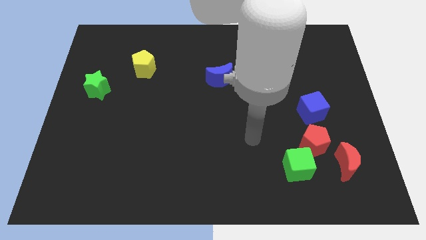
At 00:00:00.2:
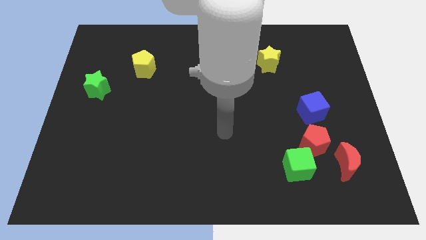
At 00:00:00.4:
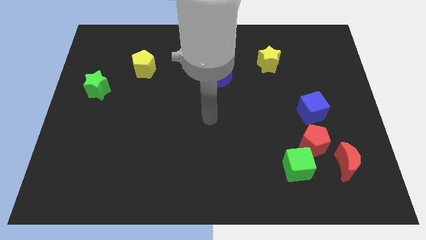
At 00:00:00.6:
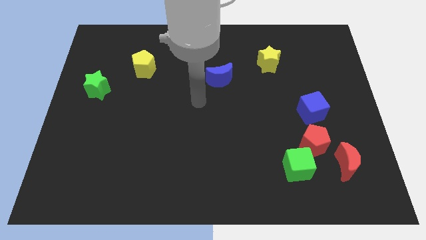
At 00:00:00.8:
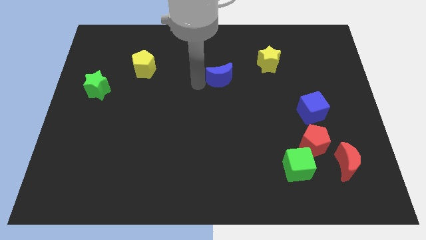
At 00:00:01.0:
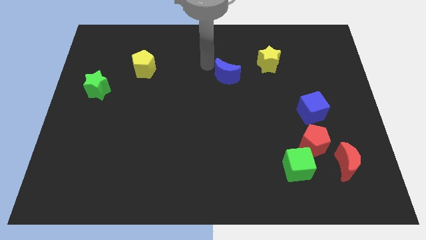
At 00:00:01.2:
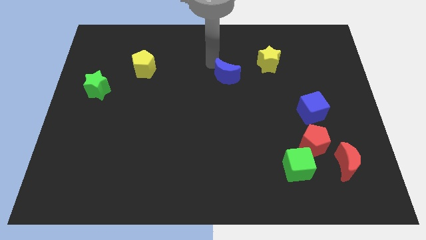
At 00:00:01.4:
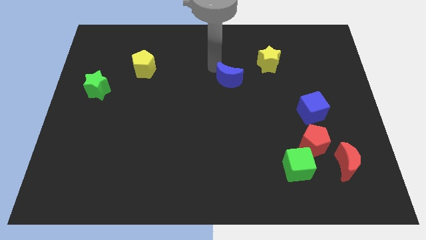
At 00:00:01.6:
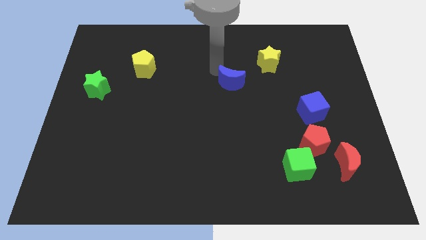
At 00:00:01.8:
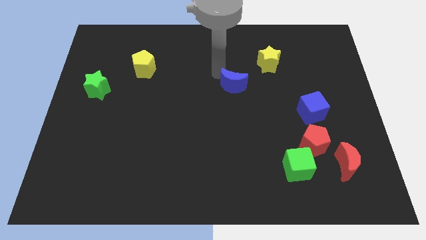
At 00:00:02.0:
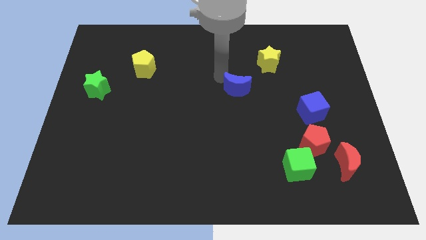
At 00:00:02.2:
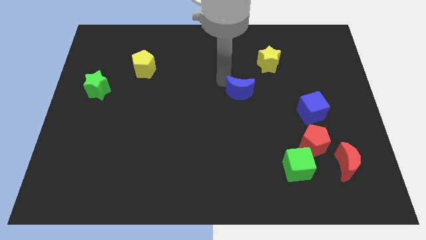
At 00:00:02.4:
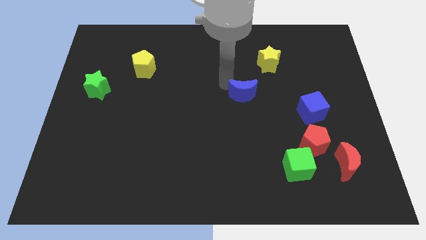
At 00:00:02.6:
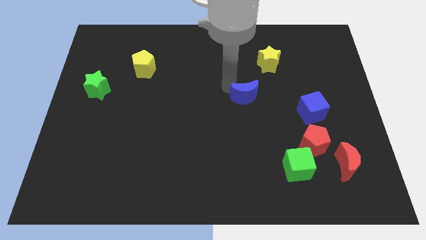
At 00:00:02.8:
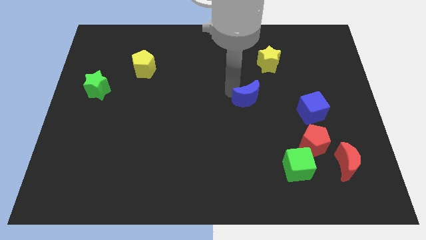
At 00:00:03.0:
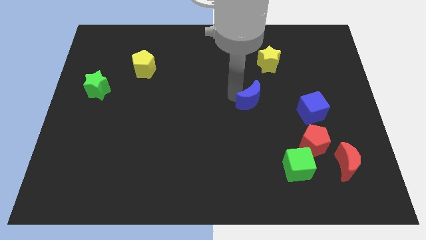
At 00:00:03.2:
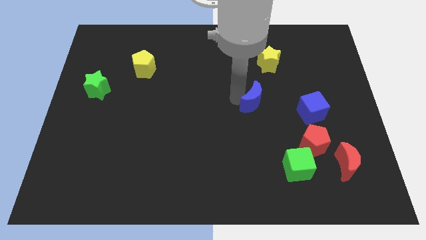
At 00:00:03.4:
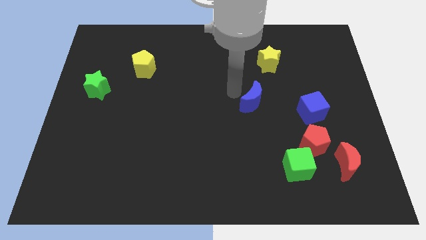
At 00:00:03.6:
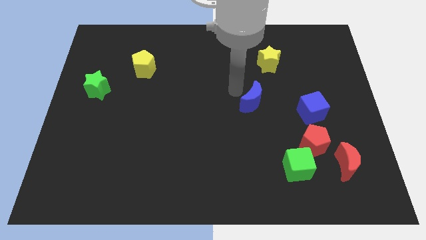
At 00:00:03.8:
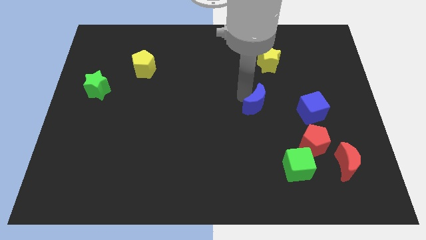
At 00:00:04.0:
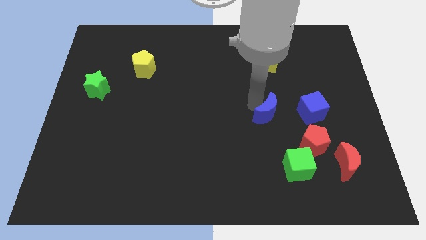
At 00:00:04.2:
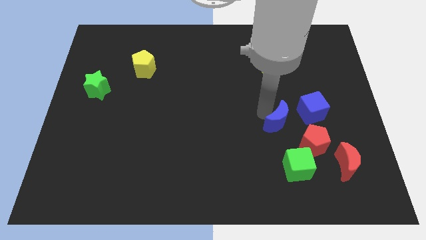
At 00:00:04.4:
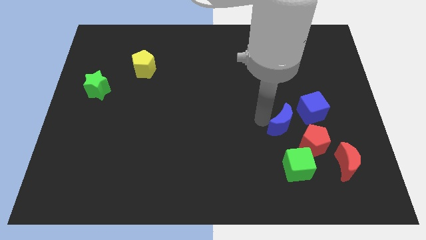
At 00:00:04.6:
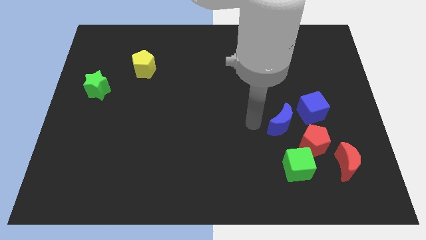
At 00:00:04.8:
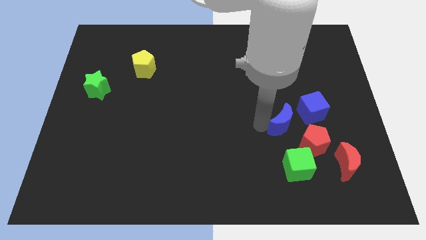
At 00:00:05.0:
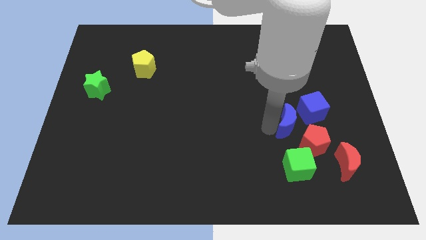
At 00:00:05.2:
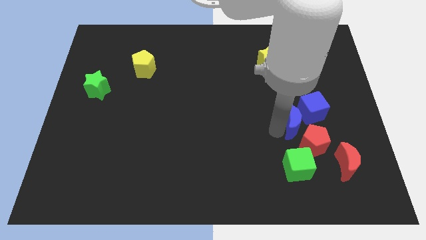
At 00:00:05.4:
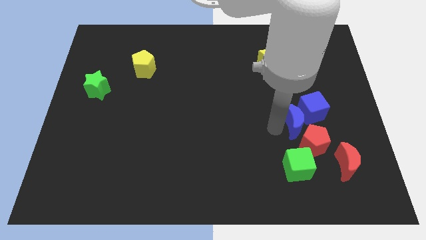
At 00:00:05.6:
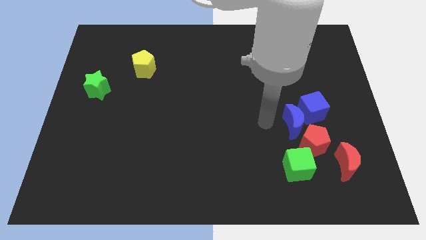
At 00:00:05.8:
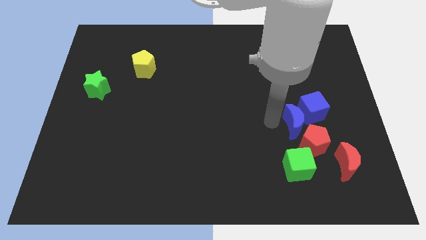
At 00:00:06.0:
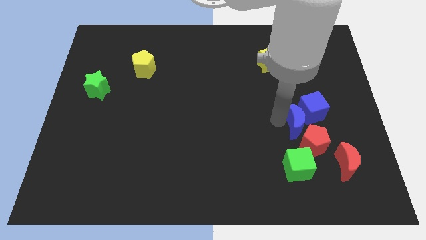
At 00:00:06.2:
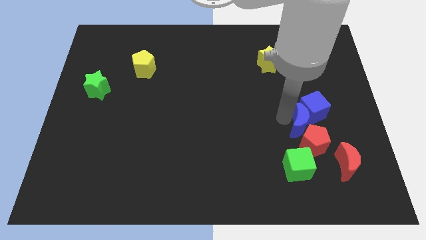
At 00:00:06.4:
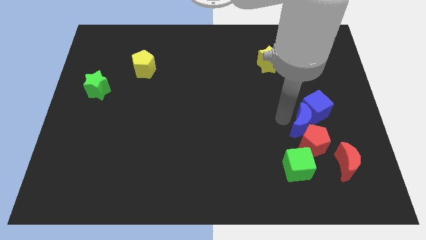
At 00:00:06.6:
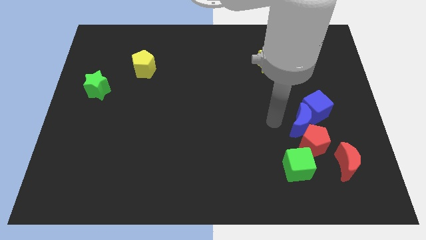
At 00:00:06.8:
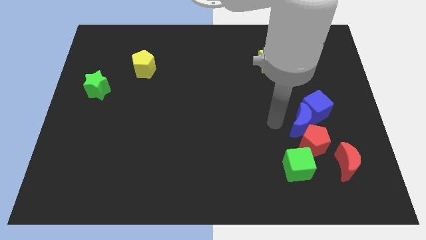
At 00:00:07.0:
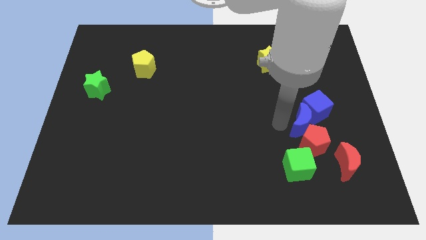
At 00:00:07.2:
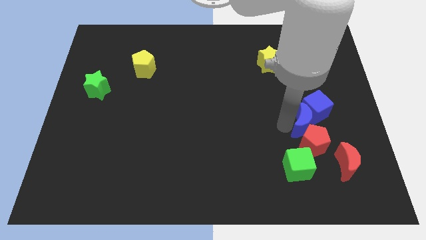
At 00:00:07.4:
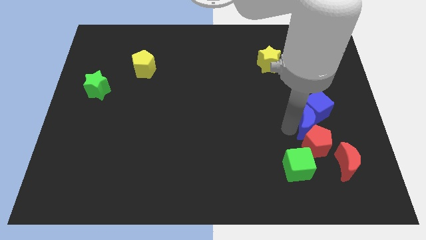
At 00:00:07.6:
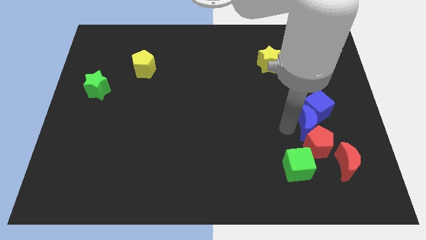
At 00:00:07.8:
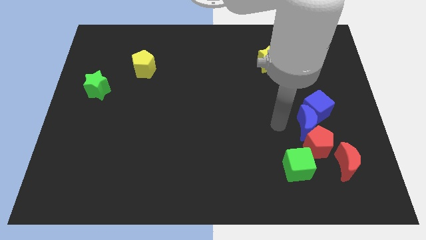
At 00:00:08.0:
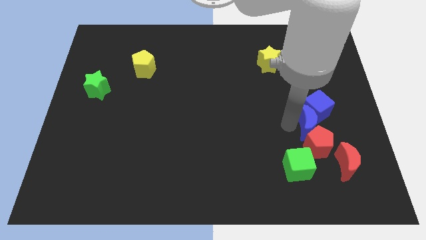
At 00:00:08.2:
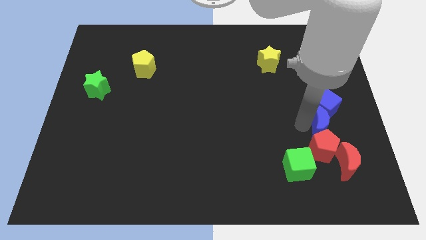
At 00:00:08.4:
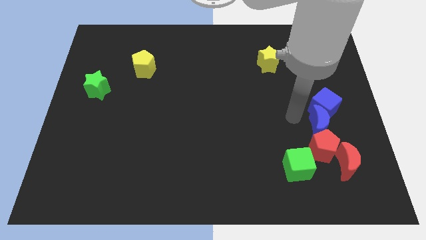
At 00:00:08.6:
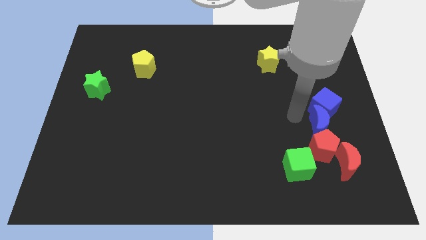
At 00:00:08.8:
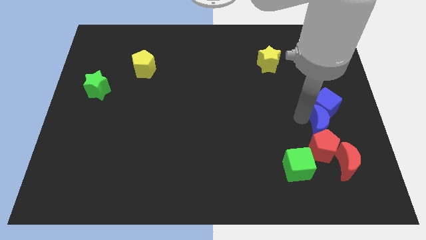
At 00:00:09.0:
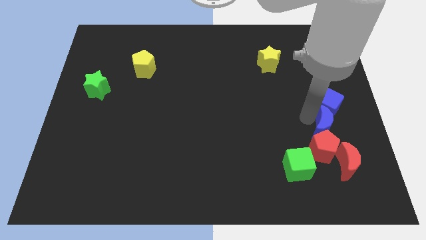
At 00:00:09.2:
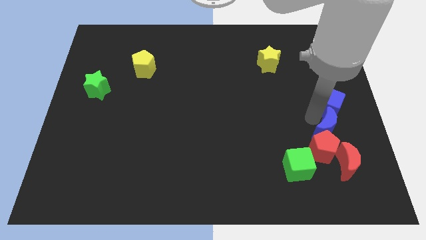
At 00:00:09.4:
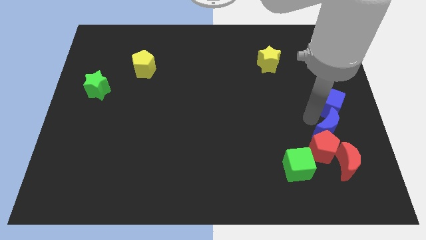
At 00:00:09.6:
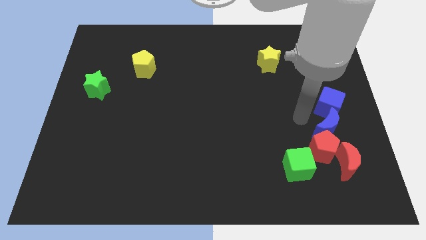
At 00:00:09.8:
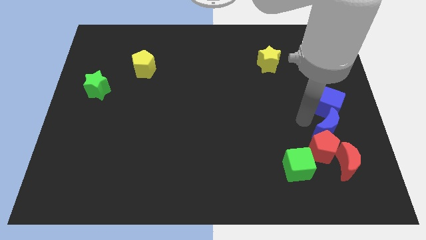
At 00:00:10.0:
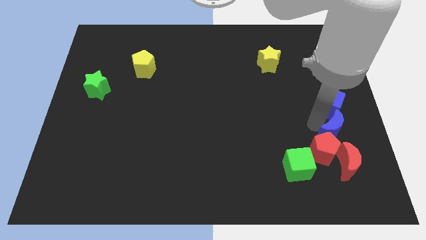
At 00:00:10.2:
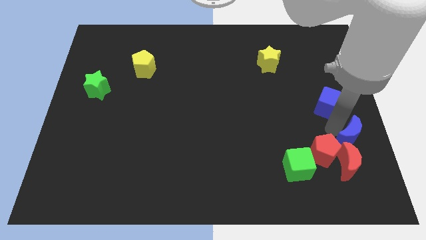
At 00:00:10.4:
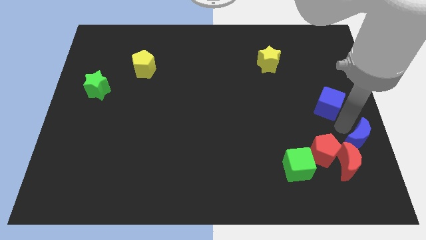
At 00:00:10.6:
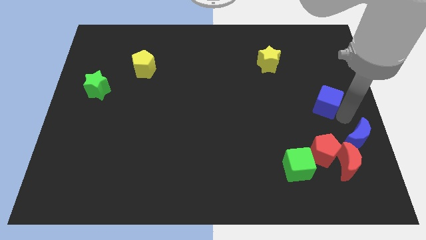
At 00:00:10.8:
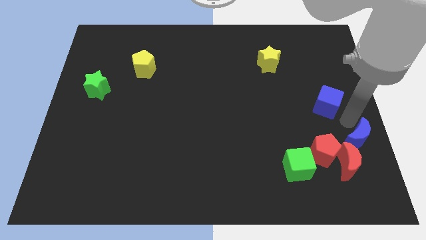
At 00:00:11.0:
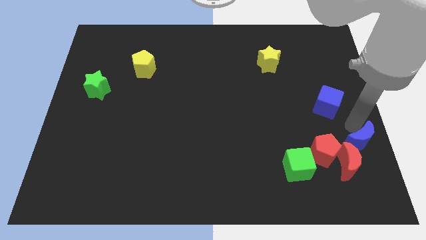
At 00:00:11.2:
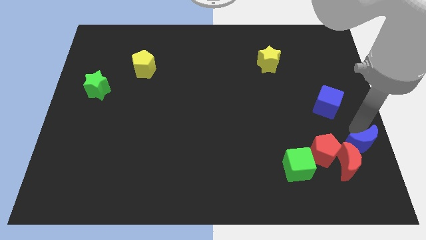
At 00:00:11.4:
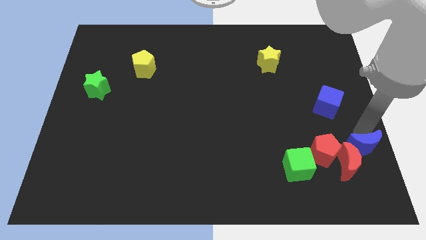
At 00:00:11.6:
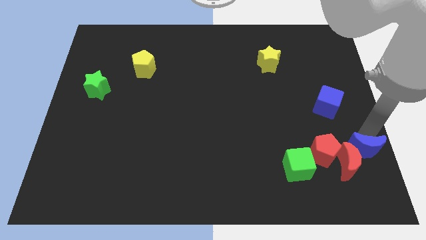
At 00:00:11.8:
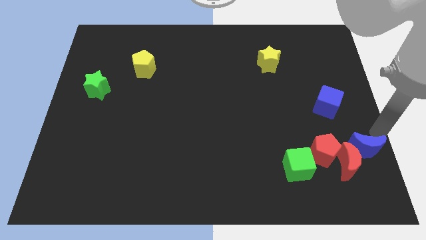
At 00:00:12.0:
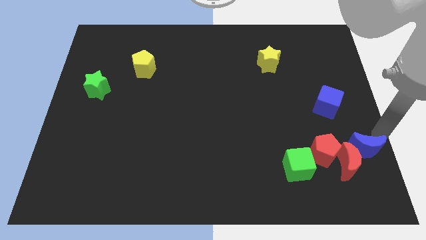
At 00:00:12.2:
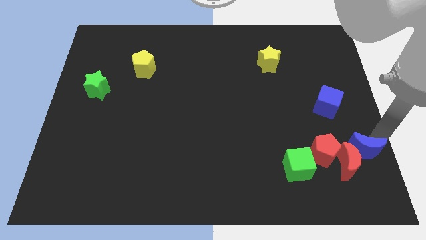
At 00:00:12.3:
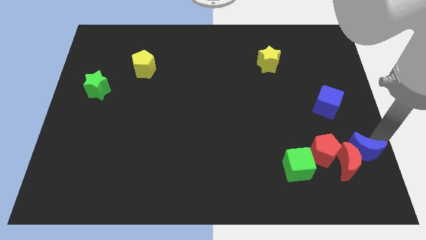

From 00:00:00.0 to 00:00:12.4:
push the blue moon to the right of the green cube
